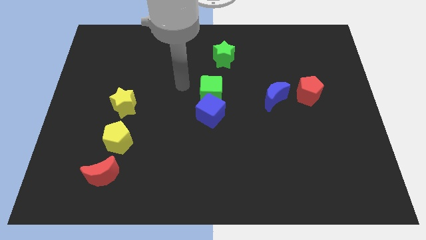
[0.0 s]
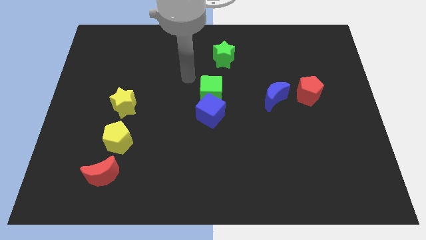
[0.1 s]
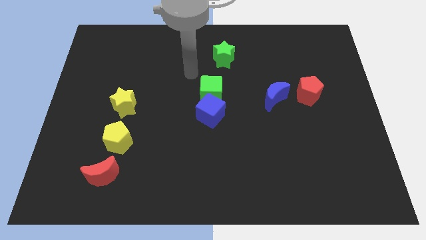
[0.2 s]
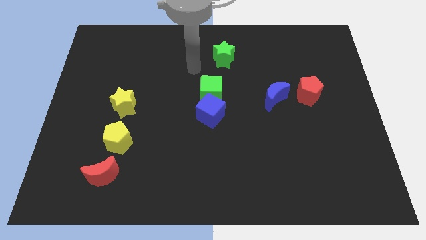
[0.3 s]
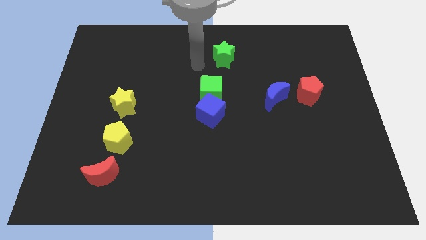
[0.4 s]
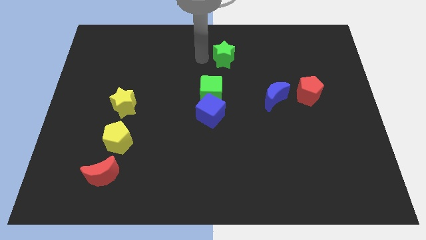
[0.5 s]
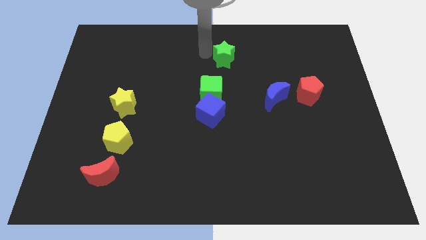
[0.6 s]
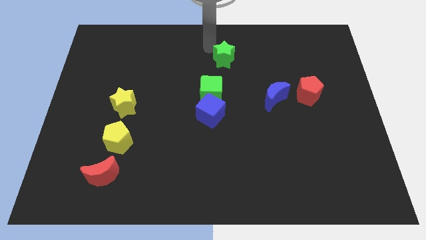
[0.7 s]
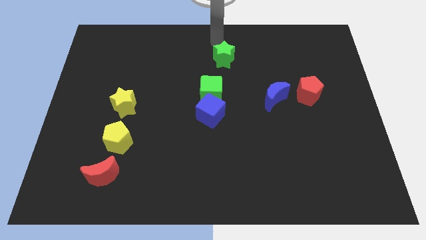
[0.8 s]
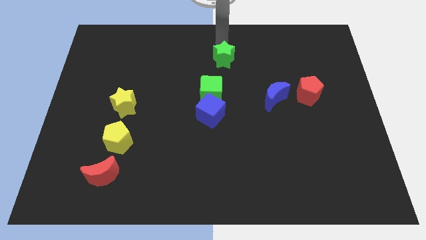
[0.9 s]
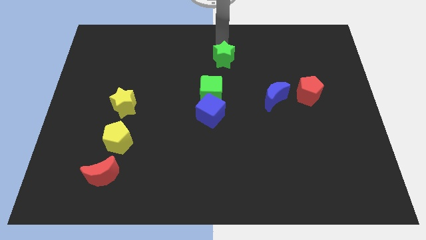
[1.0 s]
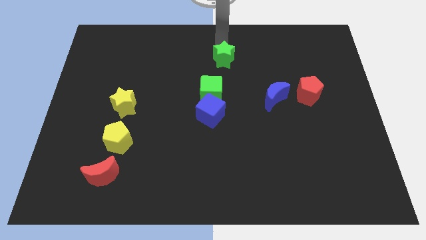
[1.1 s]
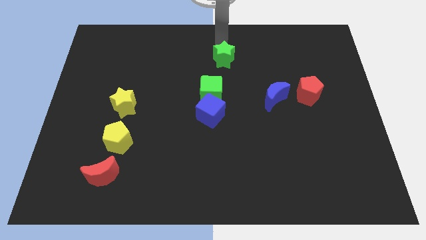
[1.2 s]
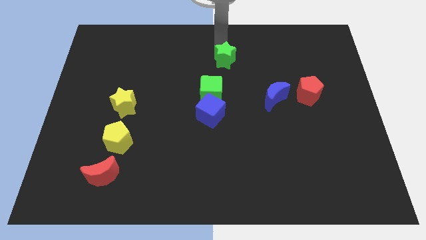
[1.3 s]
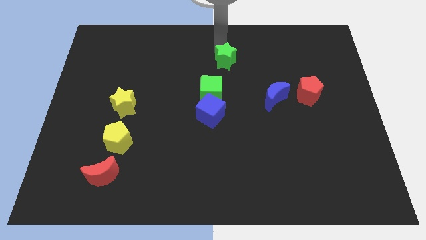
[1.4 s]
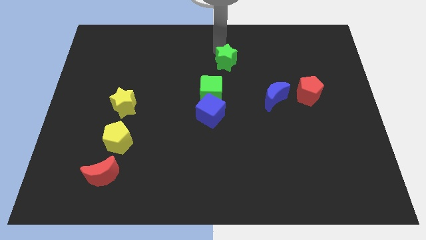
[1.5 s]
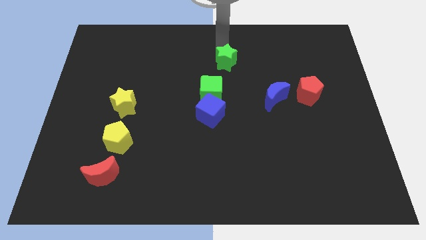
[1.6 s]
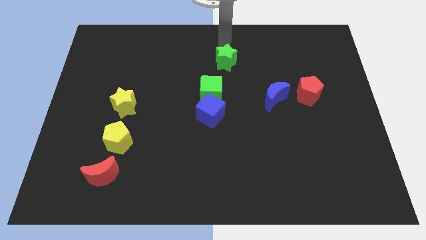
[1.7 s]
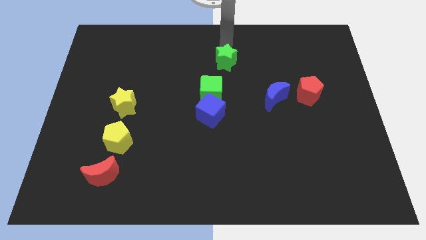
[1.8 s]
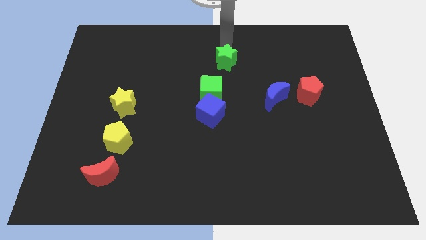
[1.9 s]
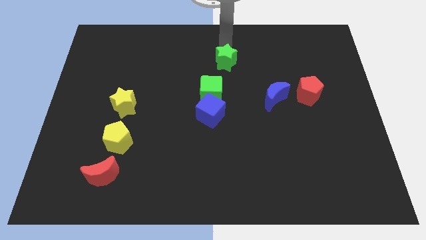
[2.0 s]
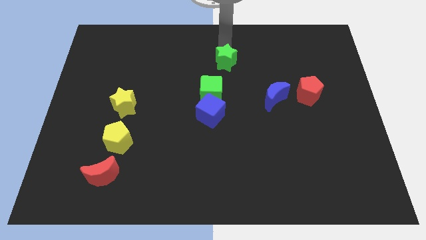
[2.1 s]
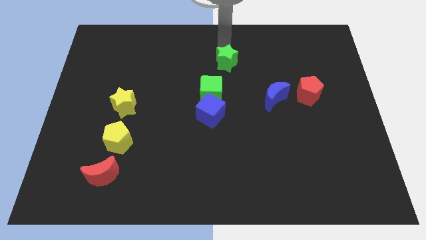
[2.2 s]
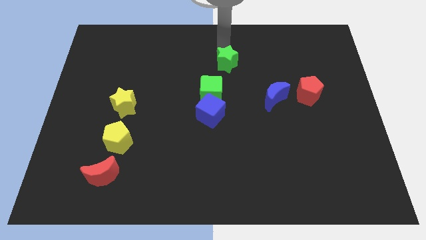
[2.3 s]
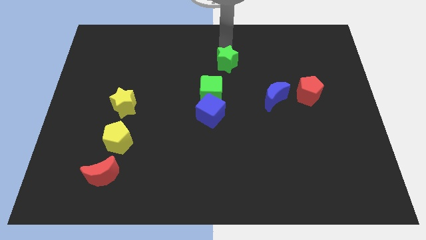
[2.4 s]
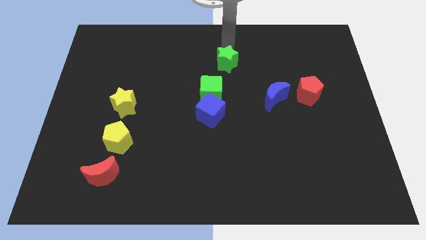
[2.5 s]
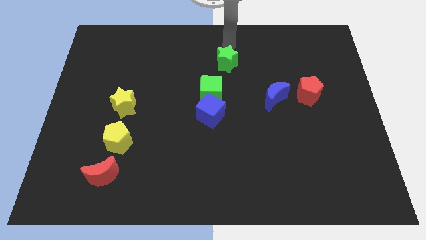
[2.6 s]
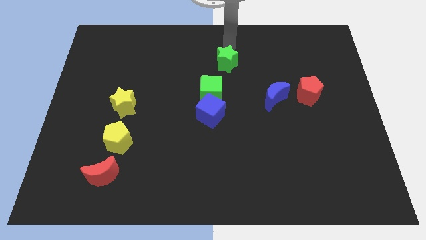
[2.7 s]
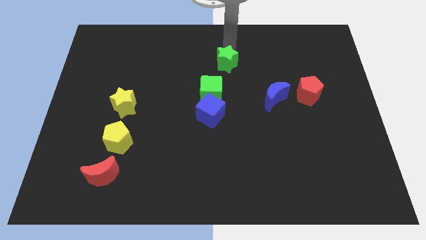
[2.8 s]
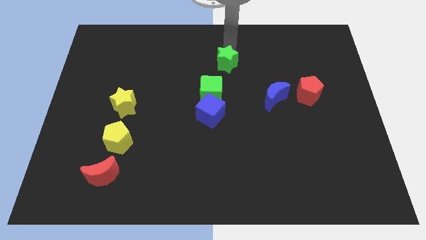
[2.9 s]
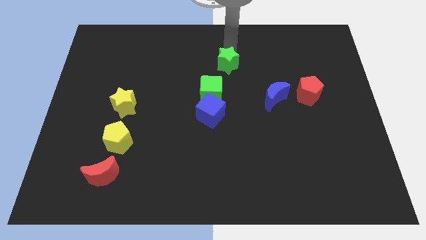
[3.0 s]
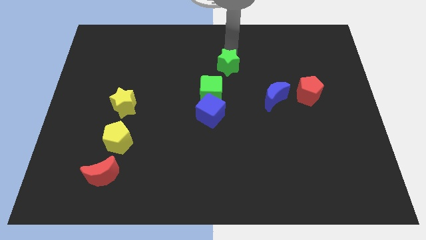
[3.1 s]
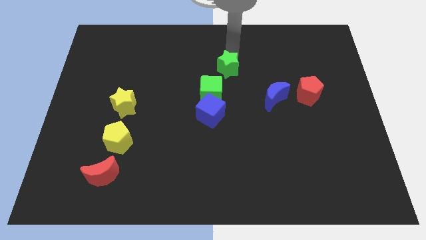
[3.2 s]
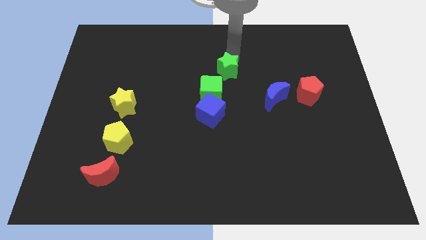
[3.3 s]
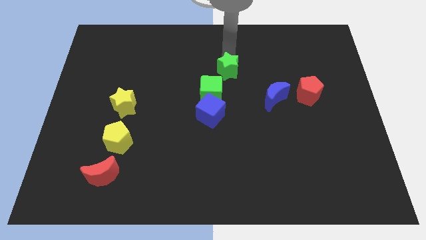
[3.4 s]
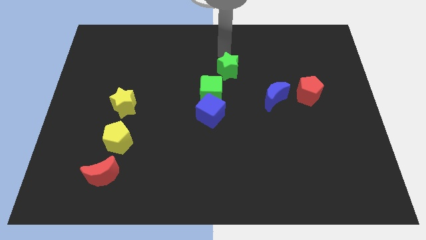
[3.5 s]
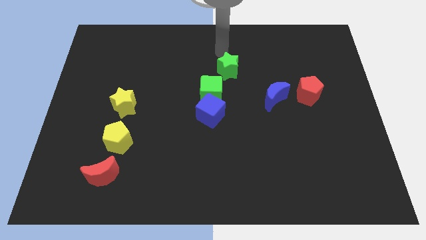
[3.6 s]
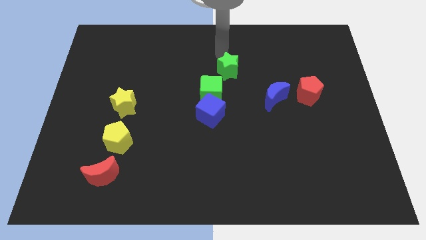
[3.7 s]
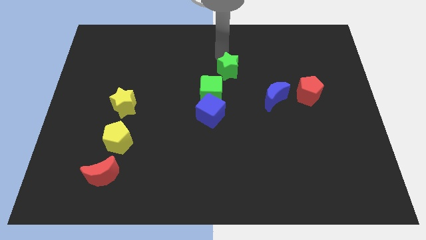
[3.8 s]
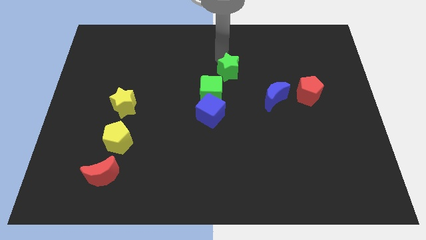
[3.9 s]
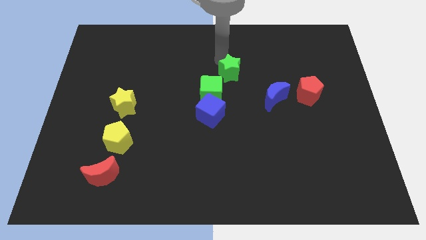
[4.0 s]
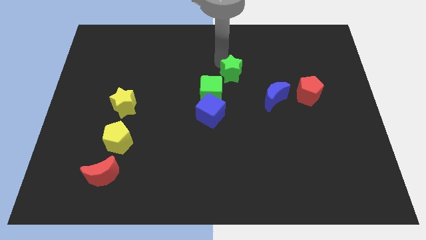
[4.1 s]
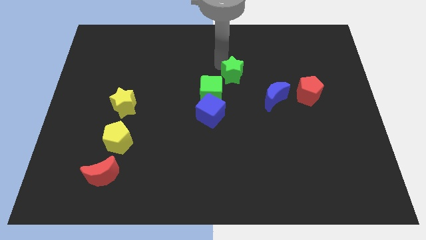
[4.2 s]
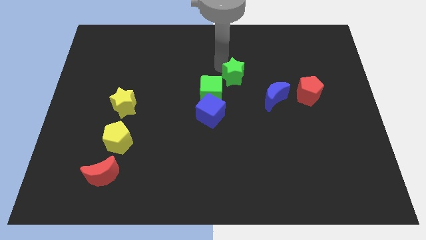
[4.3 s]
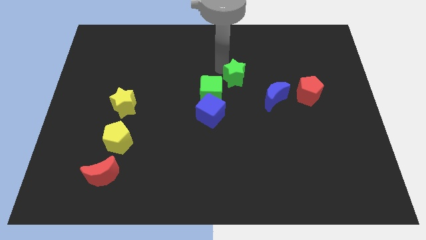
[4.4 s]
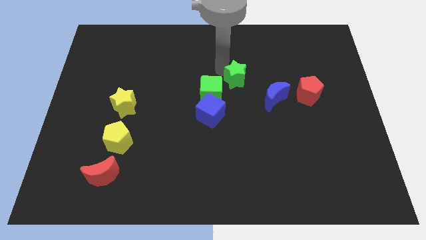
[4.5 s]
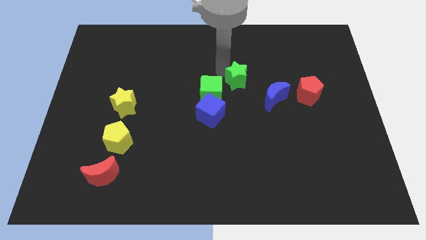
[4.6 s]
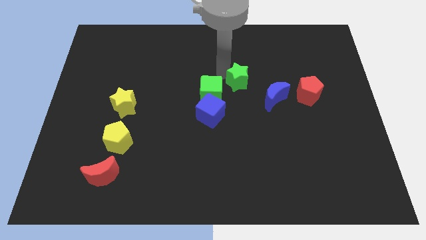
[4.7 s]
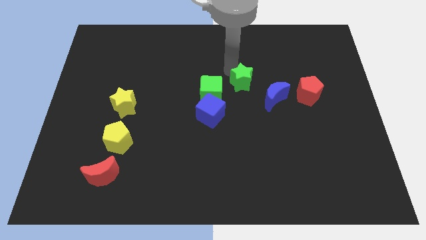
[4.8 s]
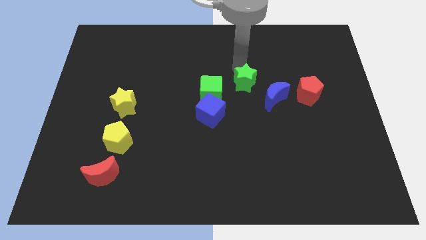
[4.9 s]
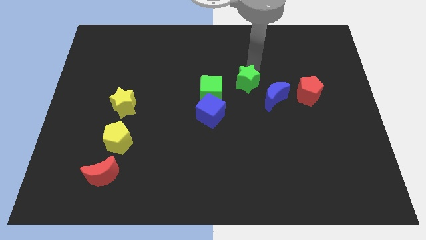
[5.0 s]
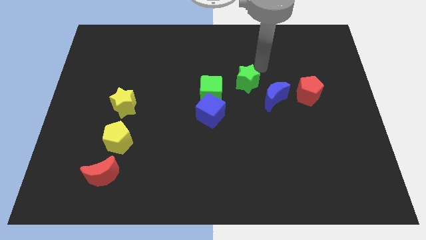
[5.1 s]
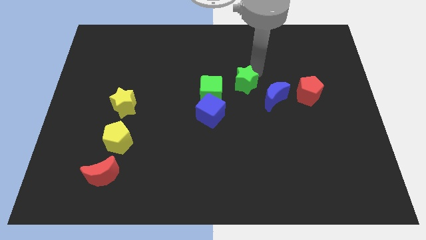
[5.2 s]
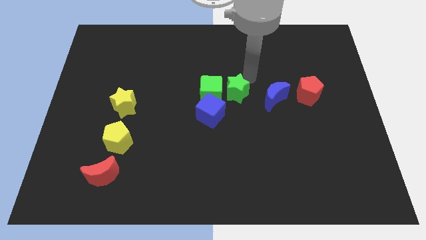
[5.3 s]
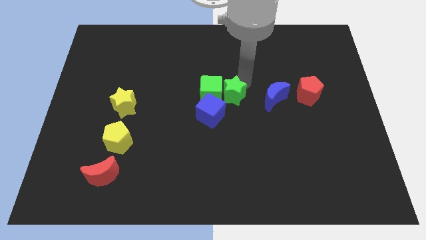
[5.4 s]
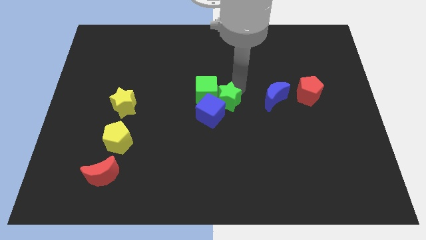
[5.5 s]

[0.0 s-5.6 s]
slide the green star towards the blue cube

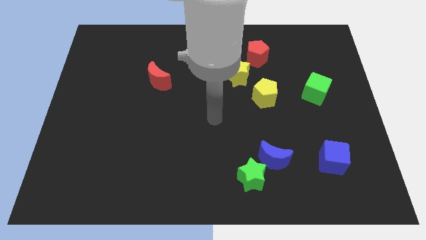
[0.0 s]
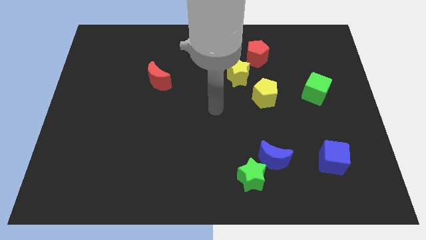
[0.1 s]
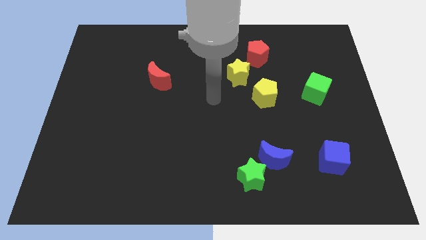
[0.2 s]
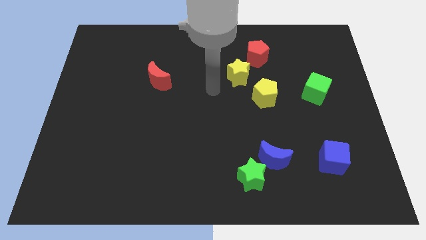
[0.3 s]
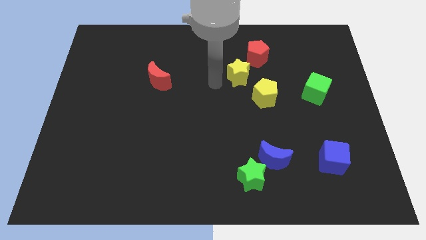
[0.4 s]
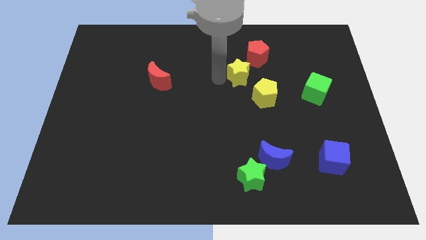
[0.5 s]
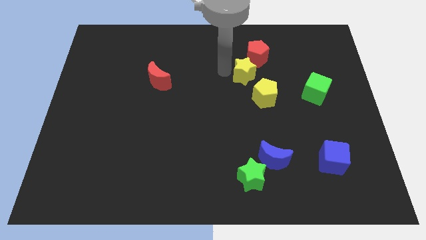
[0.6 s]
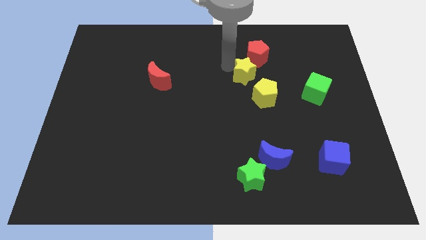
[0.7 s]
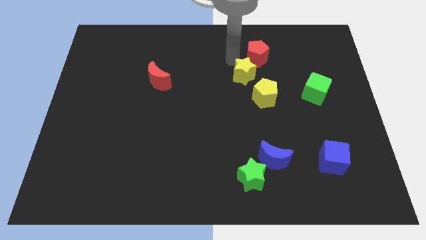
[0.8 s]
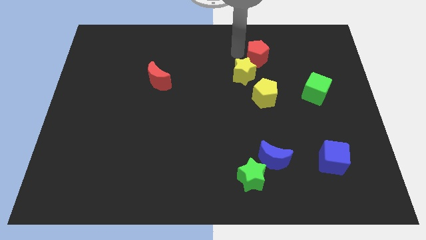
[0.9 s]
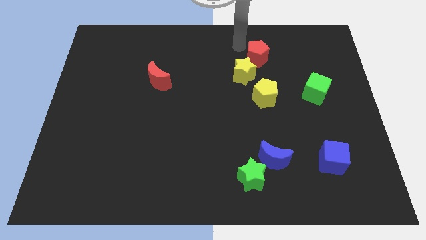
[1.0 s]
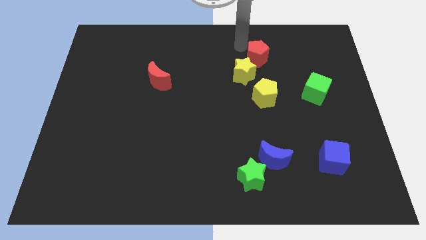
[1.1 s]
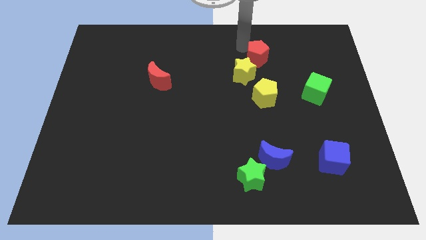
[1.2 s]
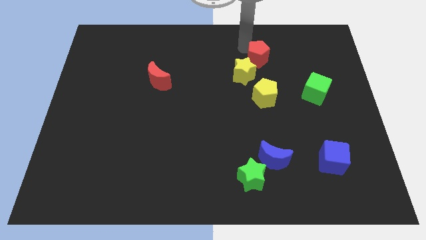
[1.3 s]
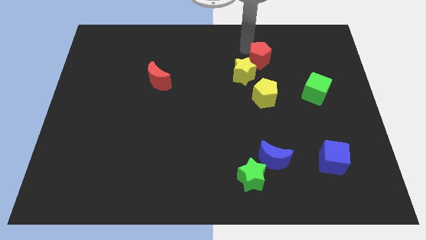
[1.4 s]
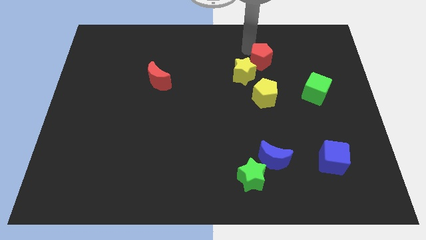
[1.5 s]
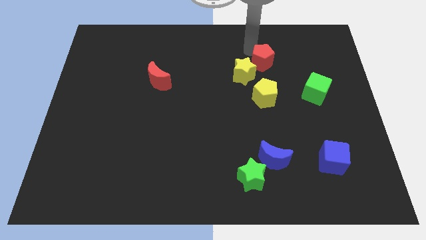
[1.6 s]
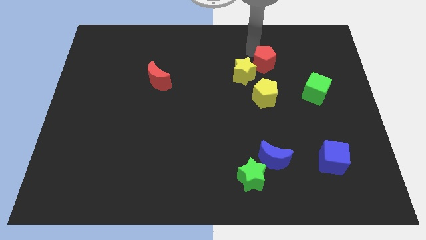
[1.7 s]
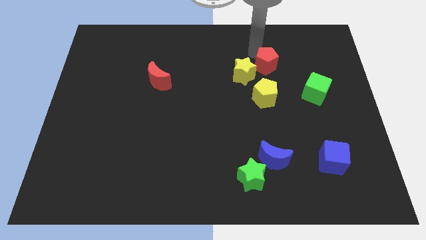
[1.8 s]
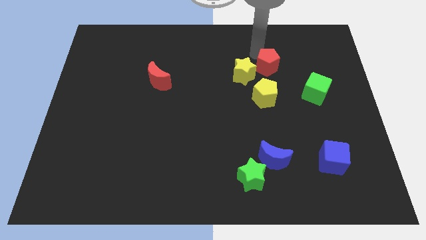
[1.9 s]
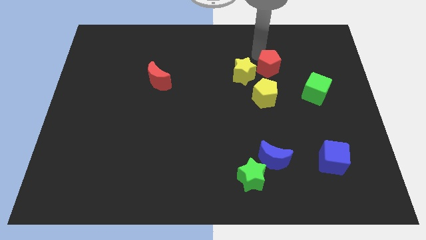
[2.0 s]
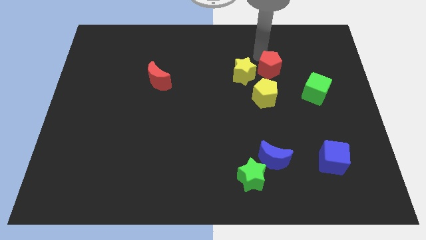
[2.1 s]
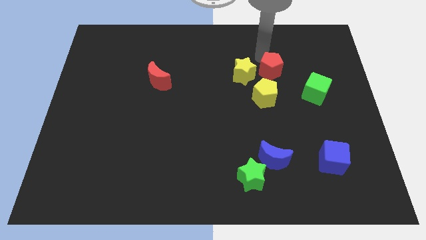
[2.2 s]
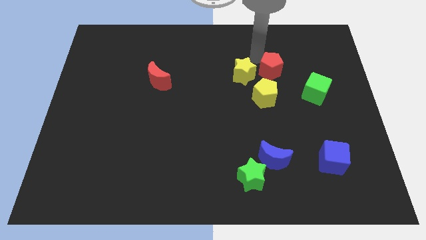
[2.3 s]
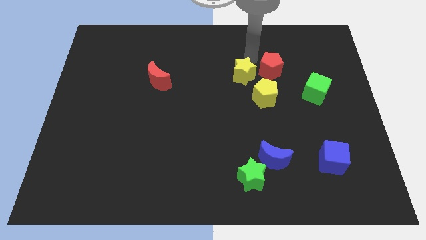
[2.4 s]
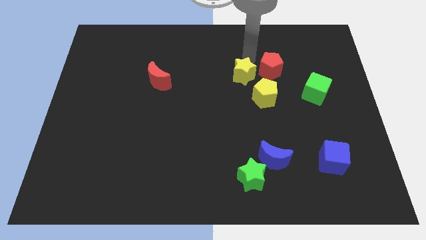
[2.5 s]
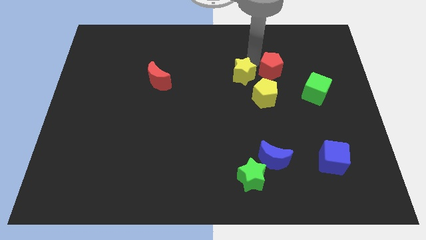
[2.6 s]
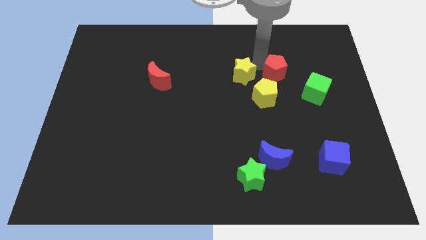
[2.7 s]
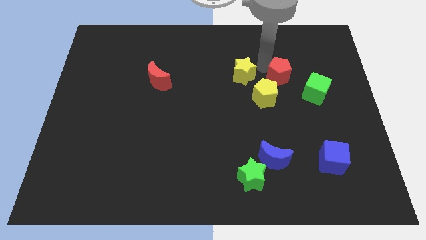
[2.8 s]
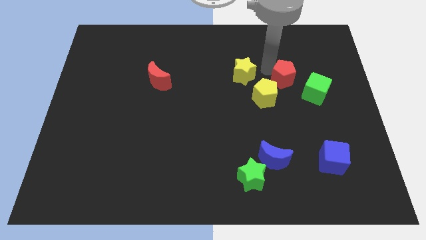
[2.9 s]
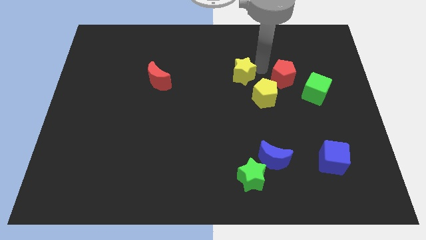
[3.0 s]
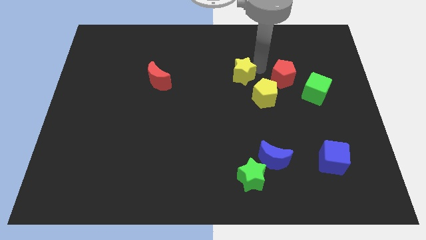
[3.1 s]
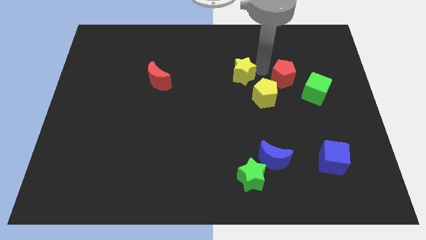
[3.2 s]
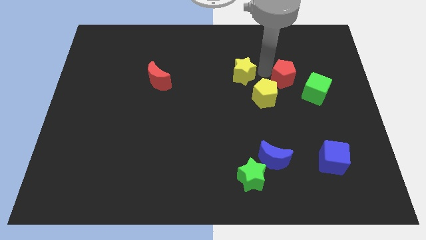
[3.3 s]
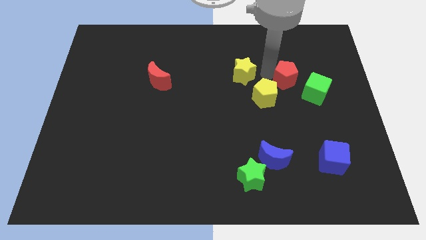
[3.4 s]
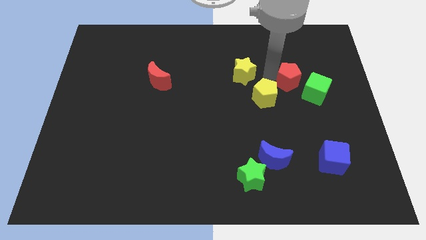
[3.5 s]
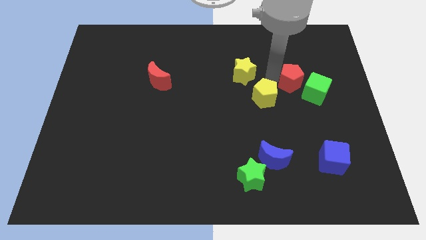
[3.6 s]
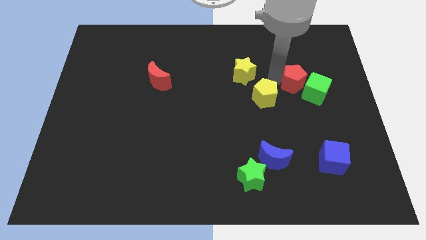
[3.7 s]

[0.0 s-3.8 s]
push the red pentagon close to the green cube
